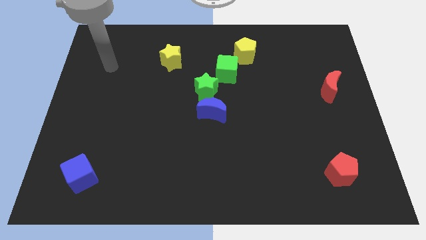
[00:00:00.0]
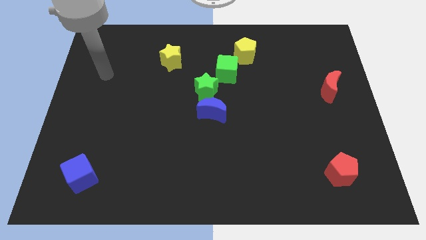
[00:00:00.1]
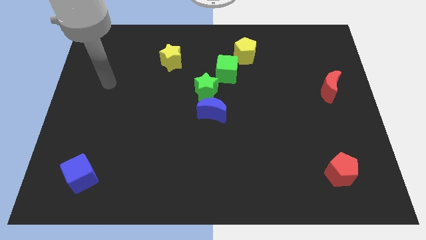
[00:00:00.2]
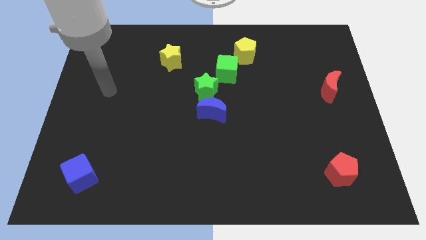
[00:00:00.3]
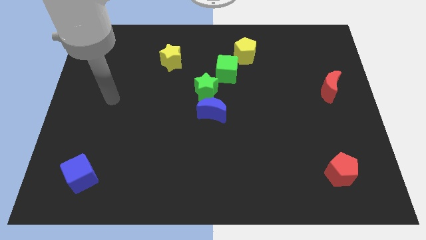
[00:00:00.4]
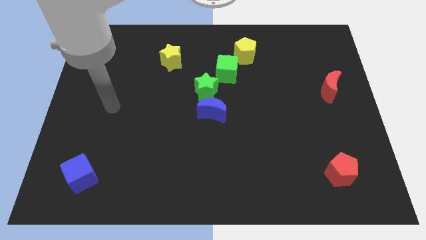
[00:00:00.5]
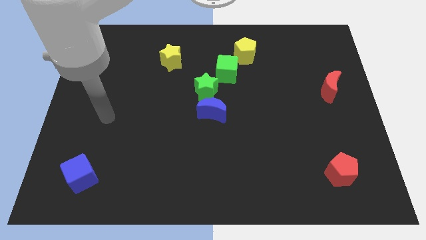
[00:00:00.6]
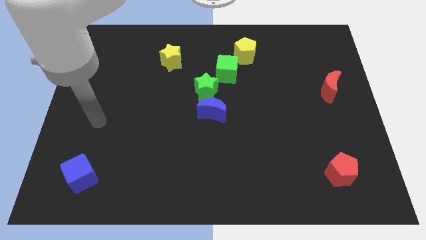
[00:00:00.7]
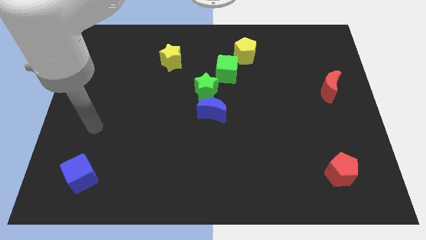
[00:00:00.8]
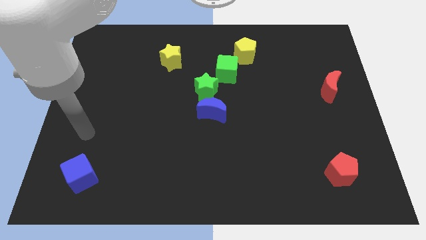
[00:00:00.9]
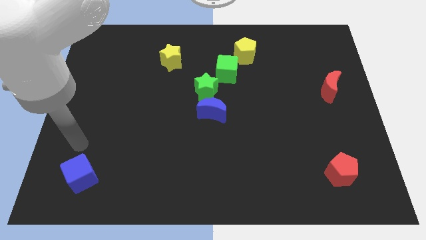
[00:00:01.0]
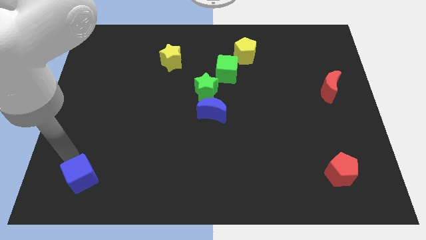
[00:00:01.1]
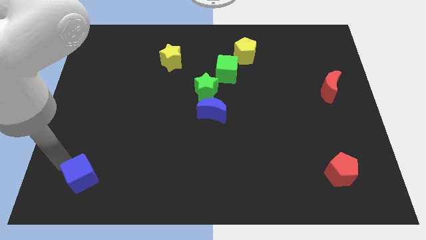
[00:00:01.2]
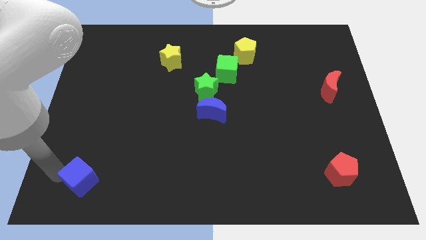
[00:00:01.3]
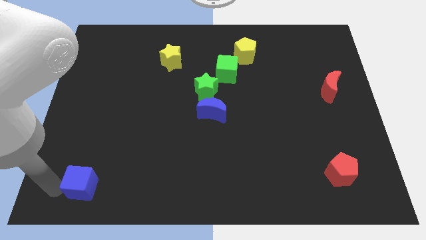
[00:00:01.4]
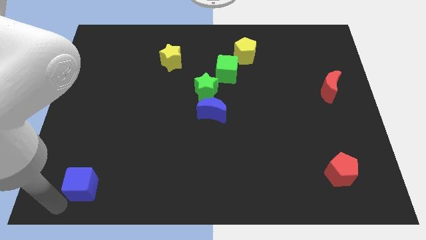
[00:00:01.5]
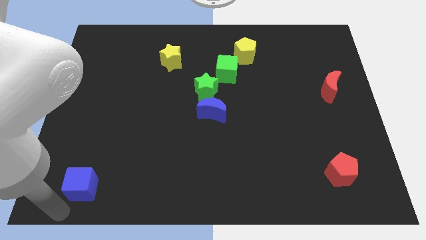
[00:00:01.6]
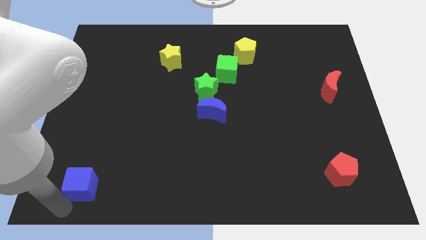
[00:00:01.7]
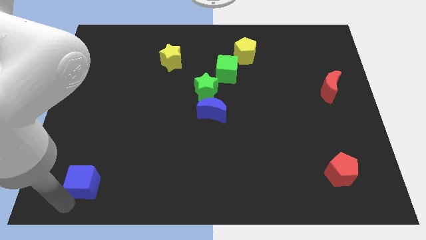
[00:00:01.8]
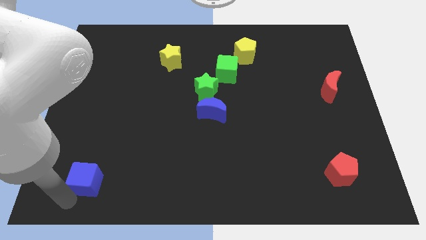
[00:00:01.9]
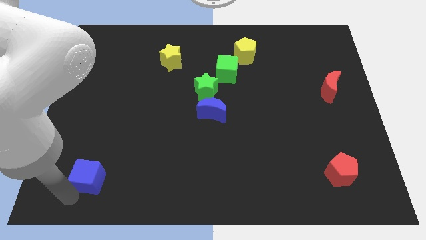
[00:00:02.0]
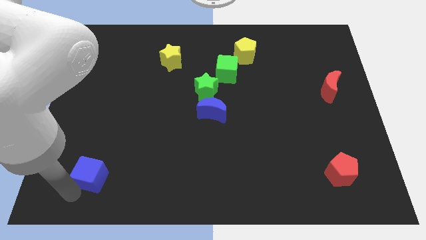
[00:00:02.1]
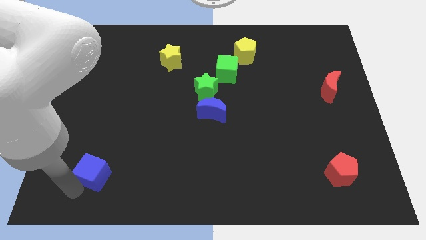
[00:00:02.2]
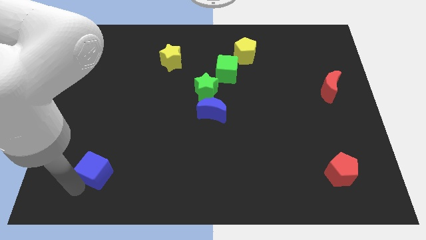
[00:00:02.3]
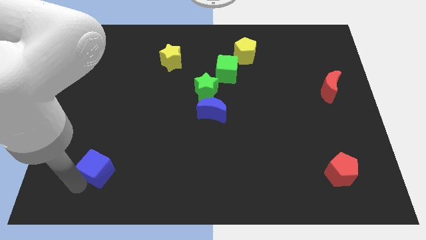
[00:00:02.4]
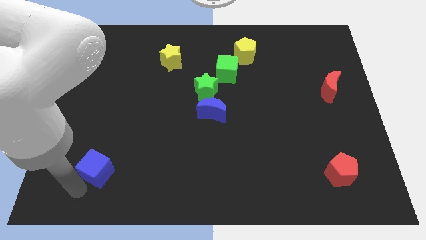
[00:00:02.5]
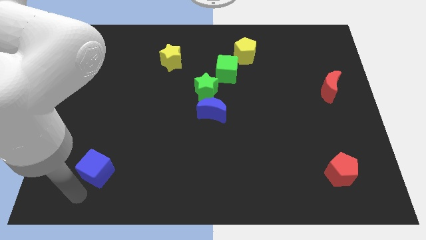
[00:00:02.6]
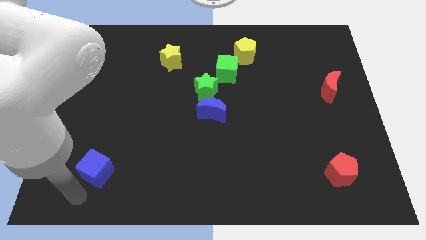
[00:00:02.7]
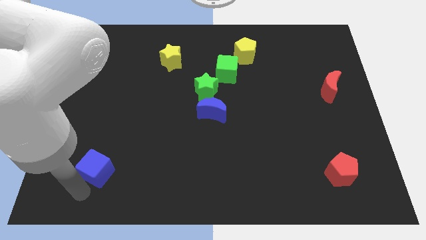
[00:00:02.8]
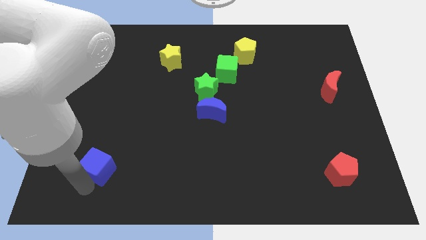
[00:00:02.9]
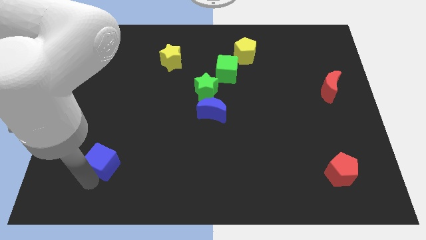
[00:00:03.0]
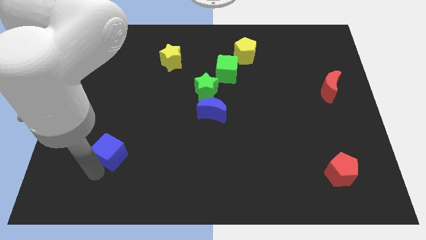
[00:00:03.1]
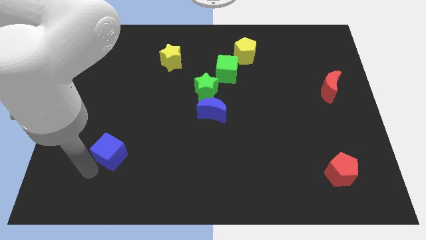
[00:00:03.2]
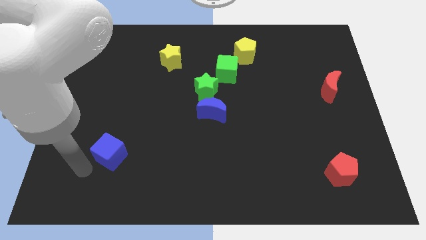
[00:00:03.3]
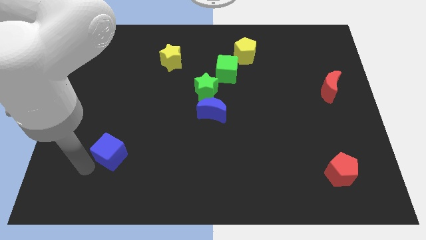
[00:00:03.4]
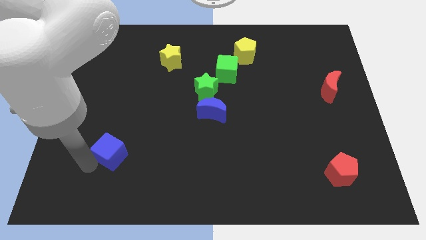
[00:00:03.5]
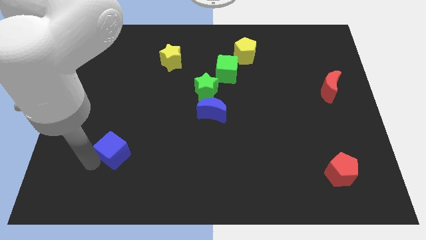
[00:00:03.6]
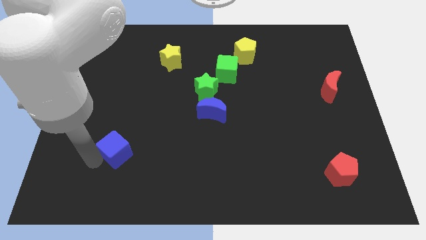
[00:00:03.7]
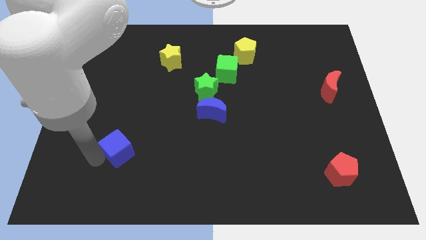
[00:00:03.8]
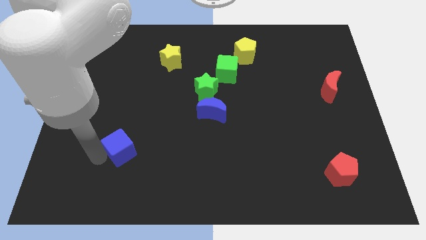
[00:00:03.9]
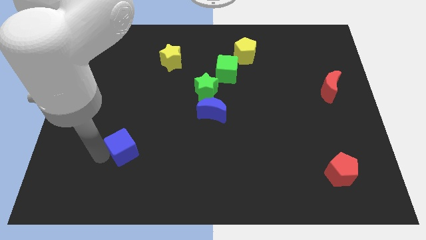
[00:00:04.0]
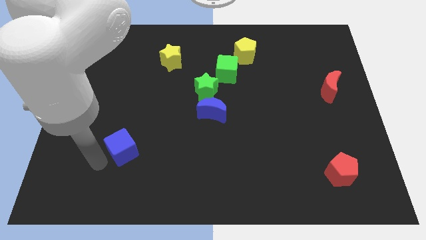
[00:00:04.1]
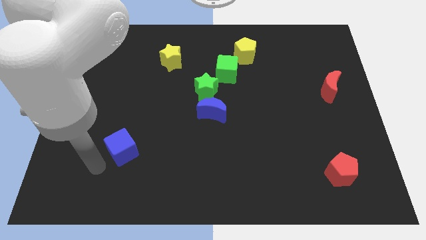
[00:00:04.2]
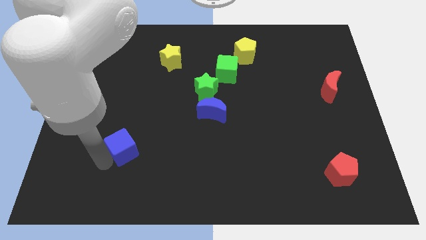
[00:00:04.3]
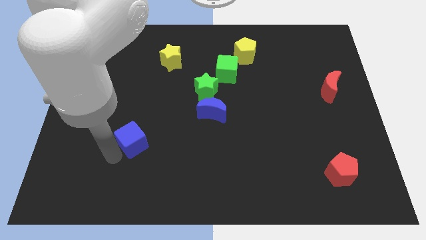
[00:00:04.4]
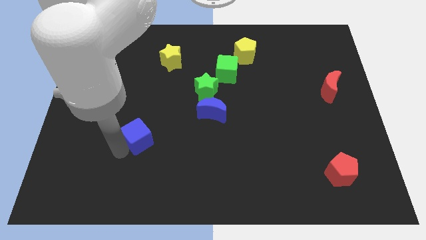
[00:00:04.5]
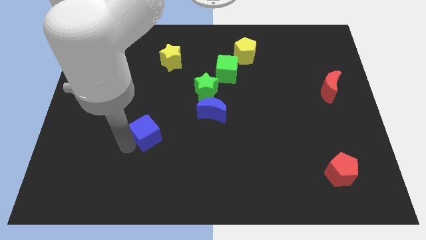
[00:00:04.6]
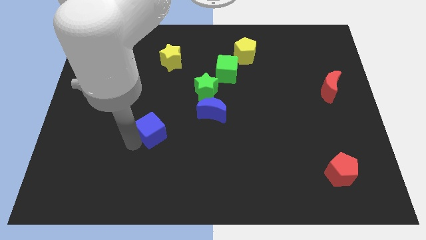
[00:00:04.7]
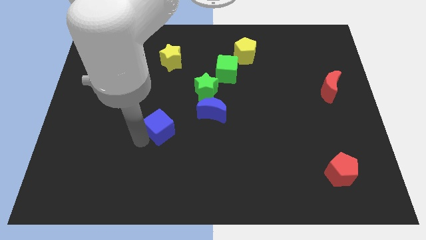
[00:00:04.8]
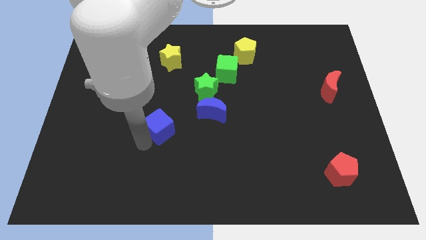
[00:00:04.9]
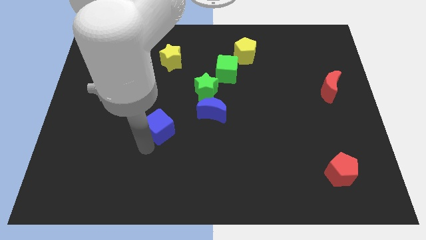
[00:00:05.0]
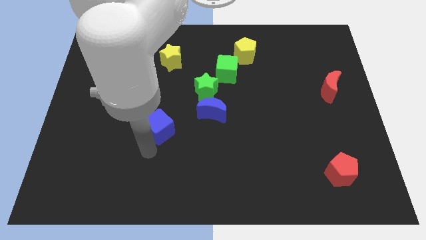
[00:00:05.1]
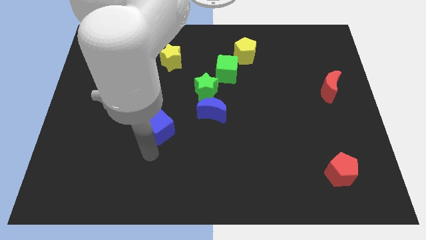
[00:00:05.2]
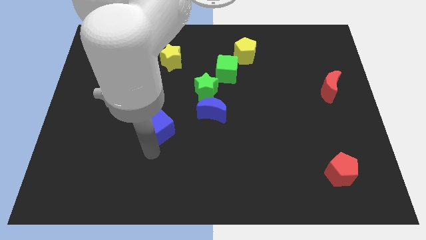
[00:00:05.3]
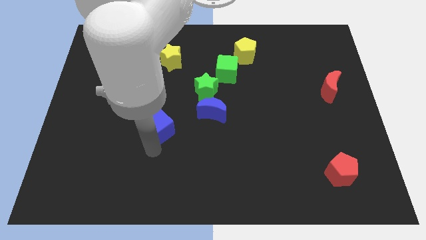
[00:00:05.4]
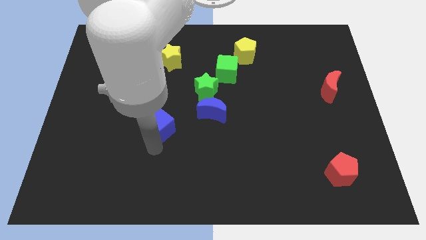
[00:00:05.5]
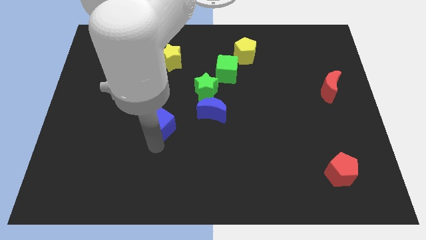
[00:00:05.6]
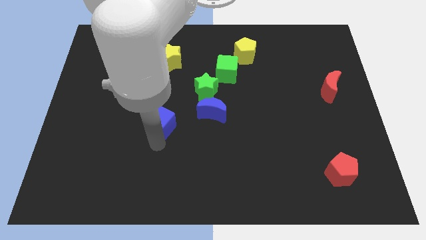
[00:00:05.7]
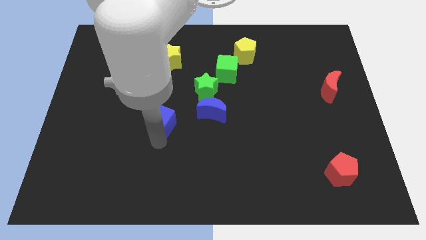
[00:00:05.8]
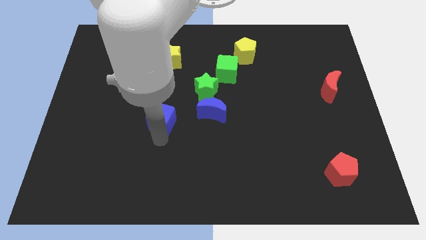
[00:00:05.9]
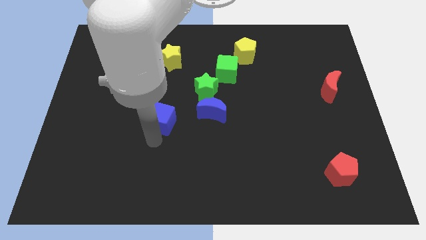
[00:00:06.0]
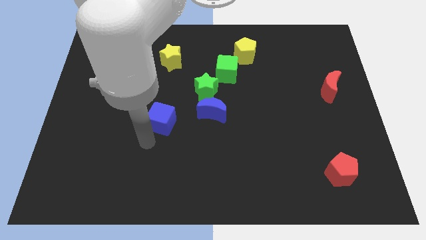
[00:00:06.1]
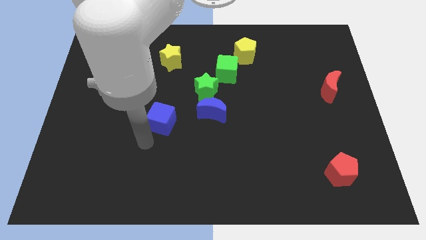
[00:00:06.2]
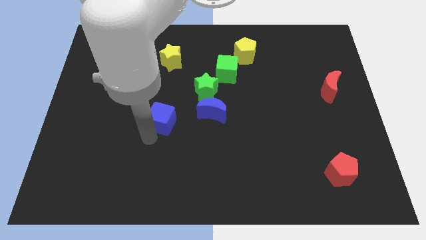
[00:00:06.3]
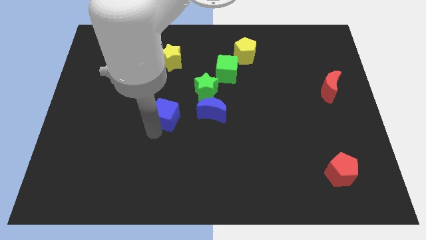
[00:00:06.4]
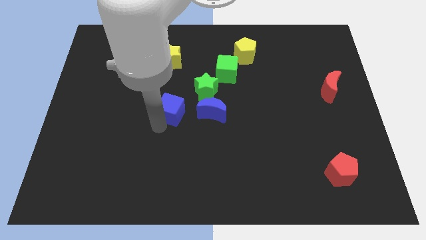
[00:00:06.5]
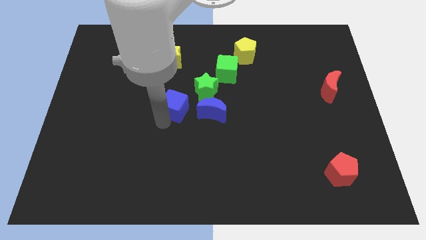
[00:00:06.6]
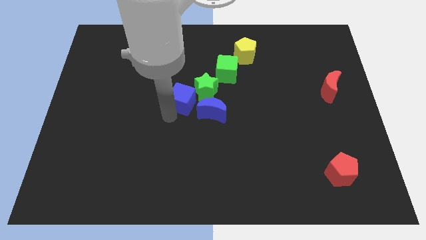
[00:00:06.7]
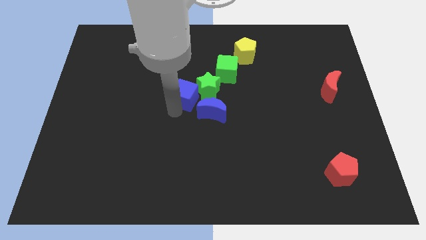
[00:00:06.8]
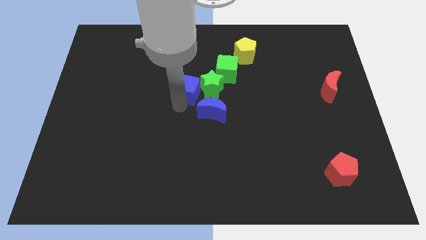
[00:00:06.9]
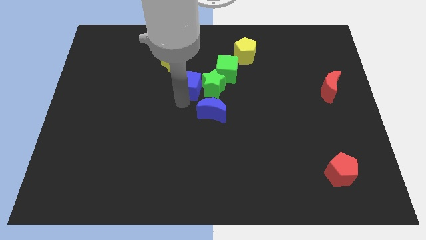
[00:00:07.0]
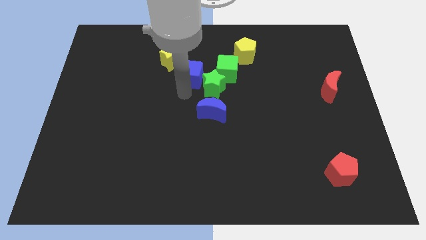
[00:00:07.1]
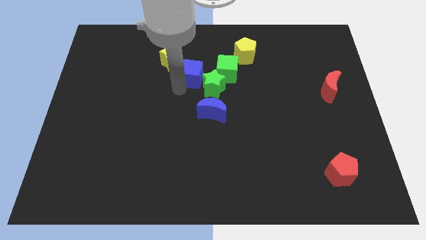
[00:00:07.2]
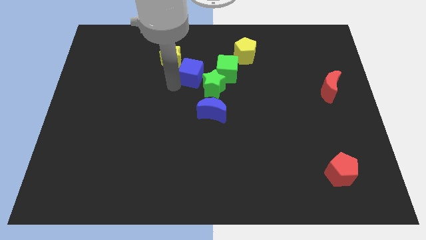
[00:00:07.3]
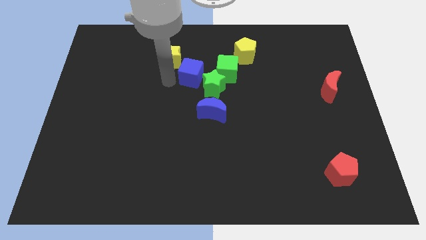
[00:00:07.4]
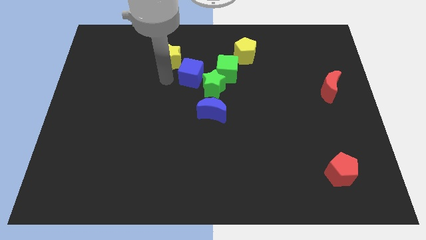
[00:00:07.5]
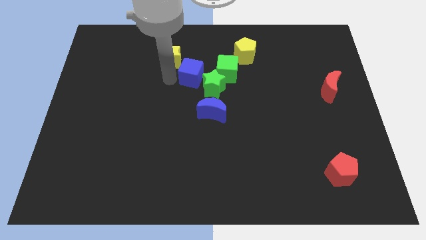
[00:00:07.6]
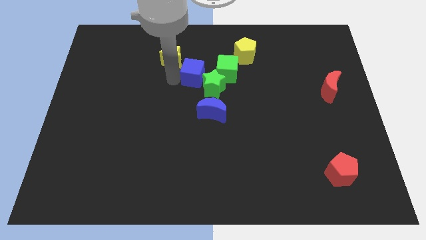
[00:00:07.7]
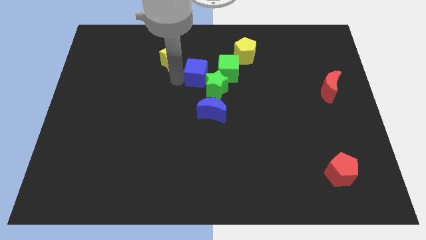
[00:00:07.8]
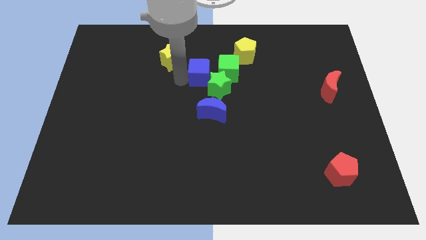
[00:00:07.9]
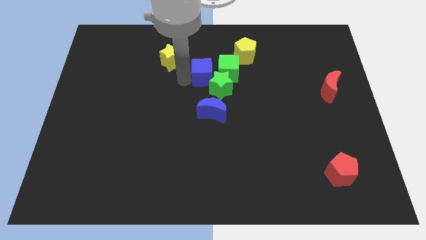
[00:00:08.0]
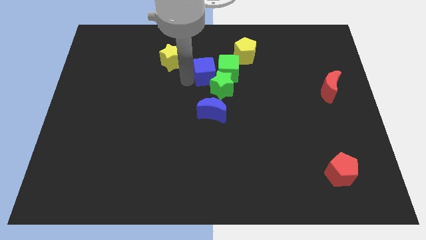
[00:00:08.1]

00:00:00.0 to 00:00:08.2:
put the blue cube next to the green cube
